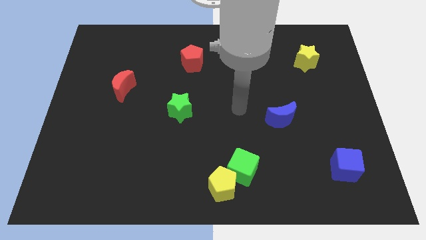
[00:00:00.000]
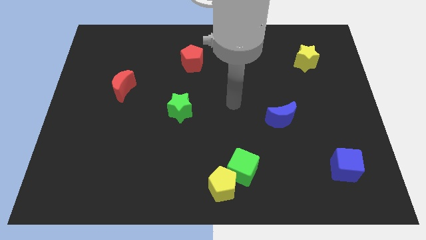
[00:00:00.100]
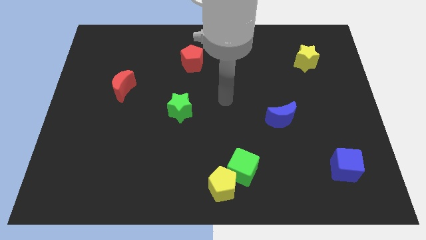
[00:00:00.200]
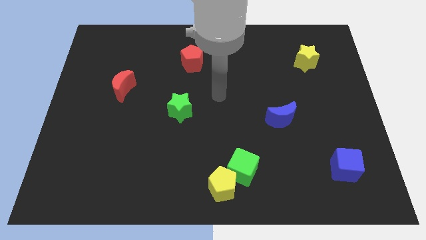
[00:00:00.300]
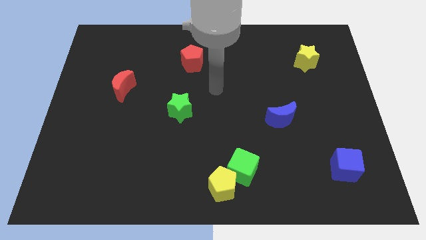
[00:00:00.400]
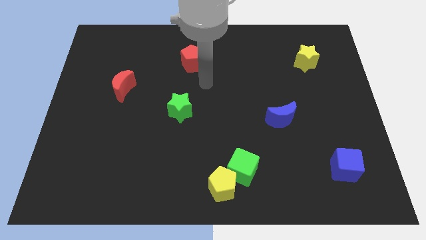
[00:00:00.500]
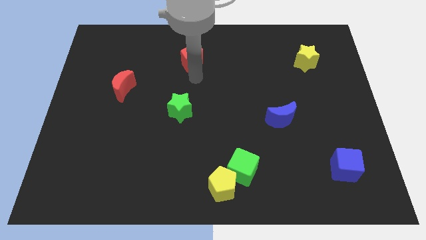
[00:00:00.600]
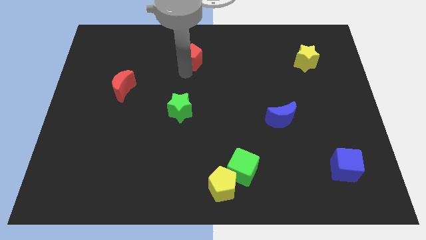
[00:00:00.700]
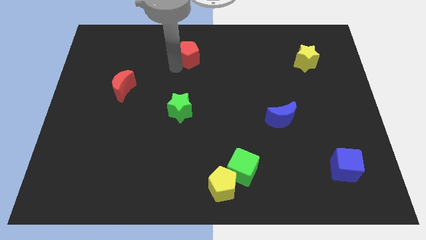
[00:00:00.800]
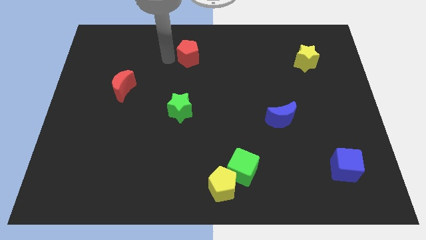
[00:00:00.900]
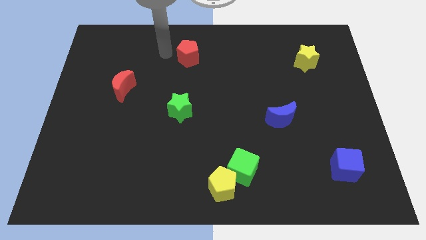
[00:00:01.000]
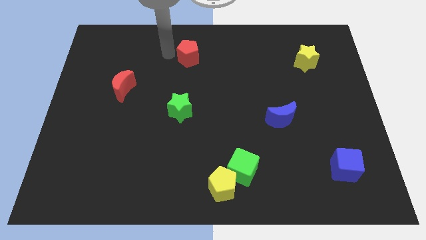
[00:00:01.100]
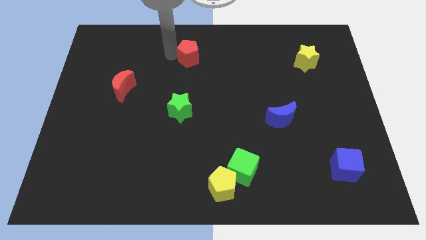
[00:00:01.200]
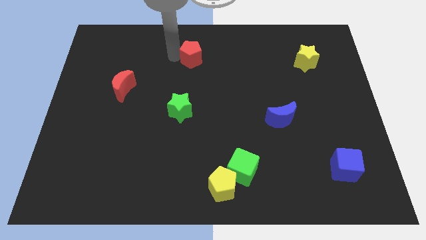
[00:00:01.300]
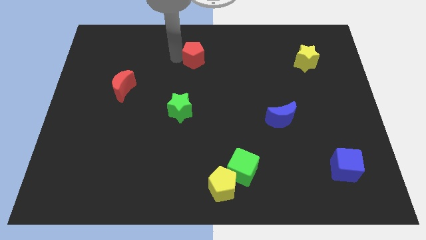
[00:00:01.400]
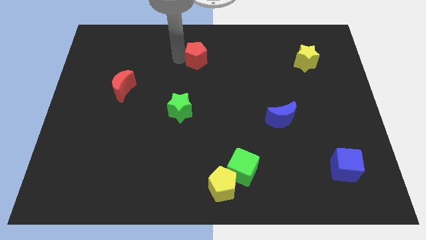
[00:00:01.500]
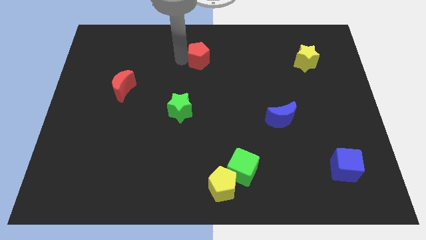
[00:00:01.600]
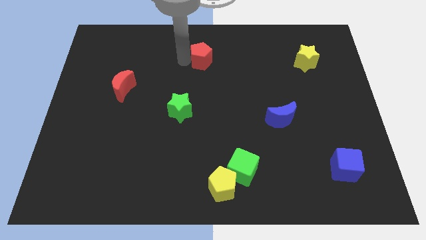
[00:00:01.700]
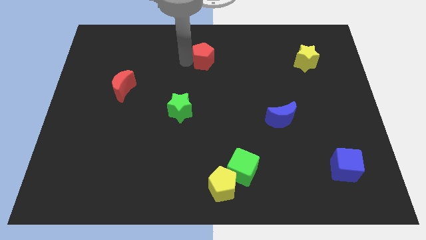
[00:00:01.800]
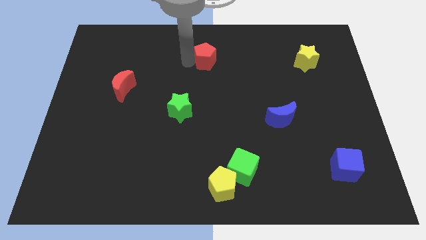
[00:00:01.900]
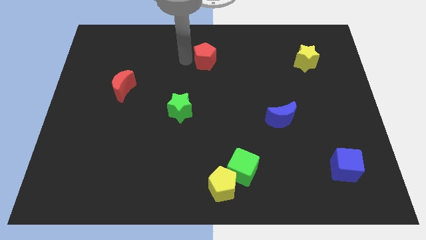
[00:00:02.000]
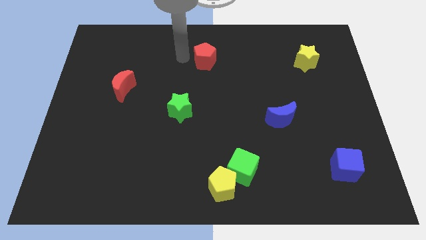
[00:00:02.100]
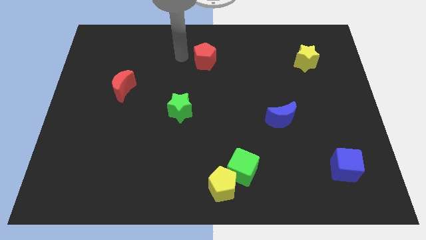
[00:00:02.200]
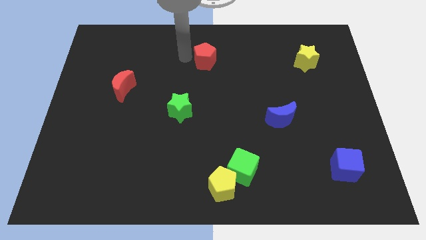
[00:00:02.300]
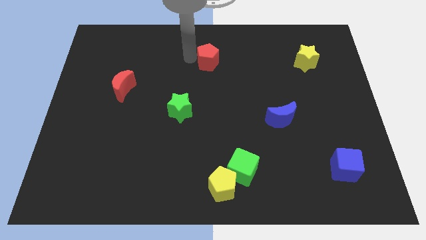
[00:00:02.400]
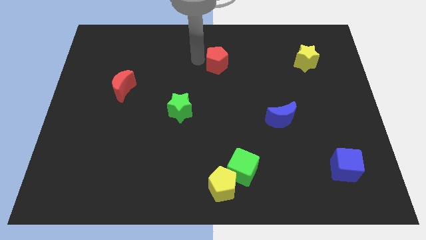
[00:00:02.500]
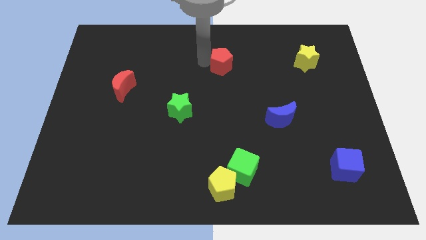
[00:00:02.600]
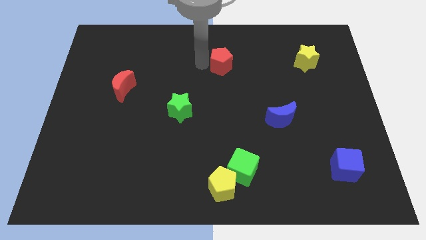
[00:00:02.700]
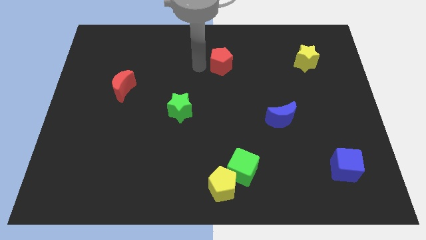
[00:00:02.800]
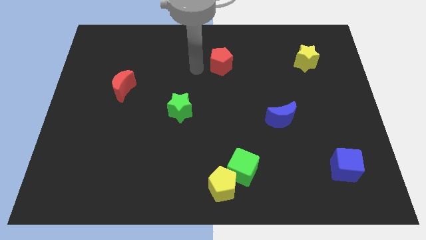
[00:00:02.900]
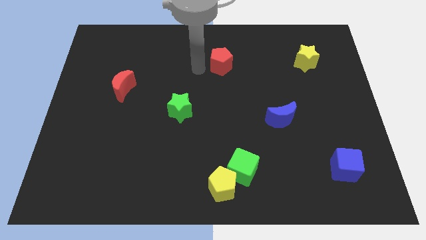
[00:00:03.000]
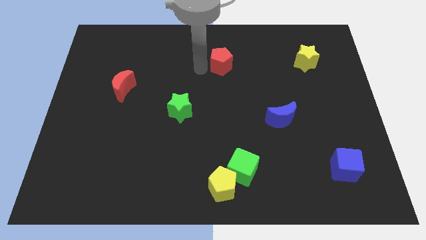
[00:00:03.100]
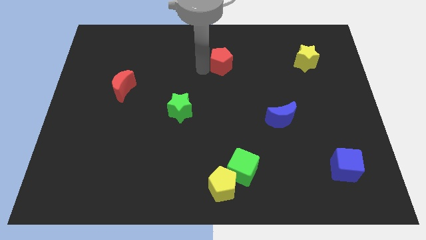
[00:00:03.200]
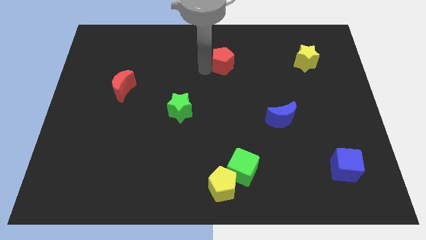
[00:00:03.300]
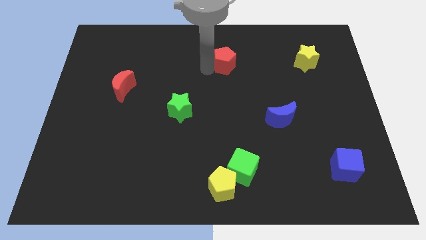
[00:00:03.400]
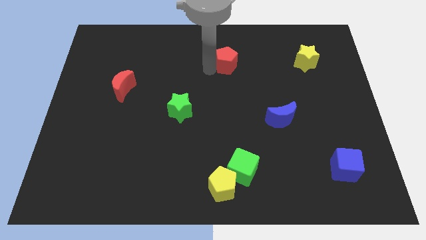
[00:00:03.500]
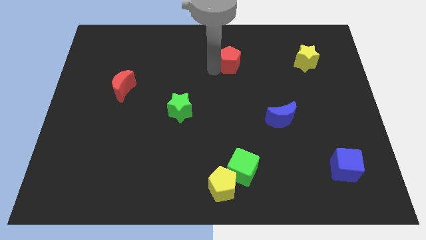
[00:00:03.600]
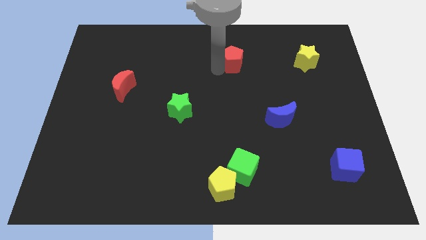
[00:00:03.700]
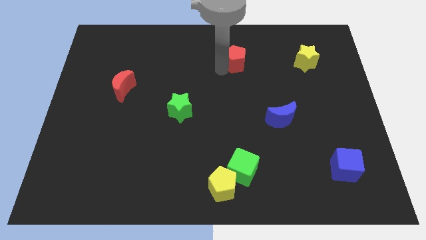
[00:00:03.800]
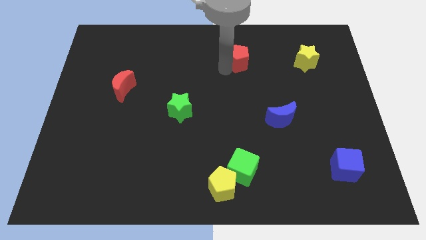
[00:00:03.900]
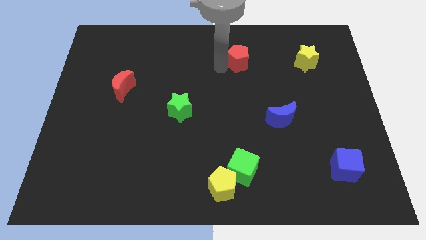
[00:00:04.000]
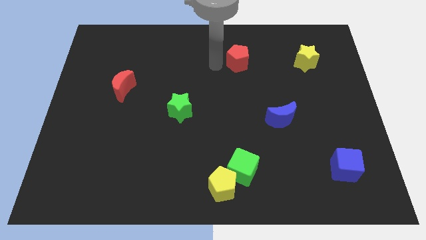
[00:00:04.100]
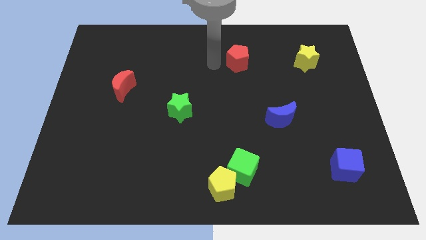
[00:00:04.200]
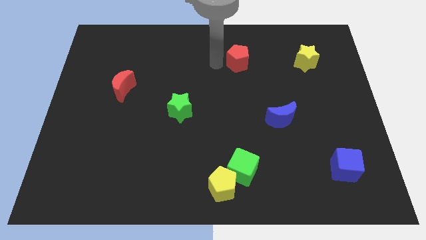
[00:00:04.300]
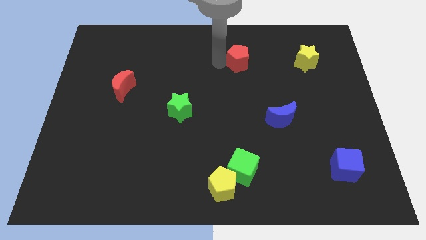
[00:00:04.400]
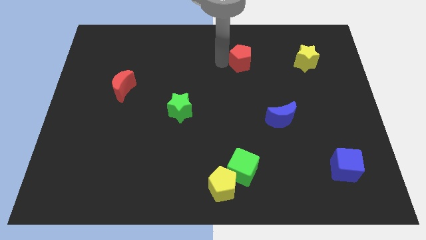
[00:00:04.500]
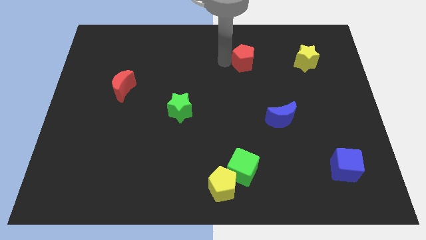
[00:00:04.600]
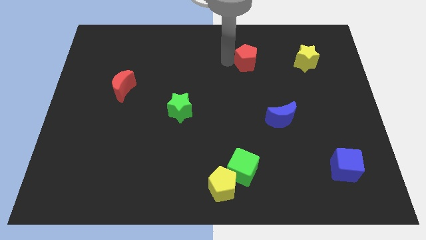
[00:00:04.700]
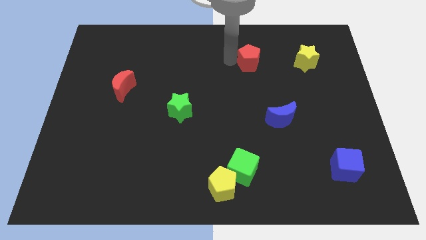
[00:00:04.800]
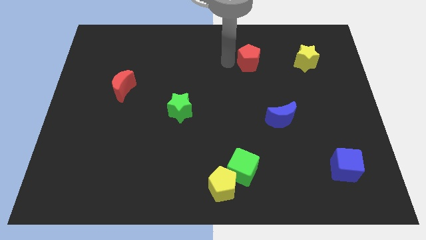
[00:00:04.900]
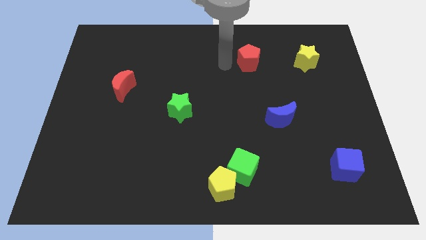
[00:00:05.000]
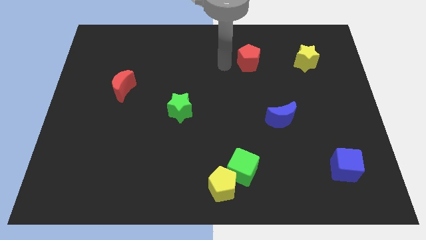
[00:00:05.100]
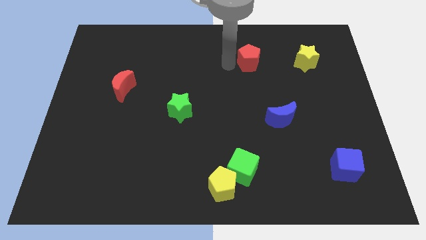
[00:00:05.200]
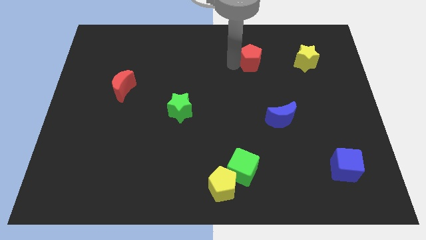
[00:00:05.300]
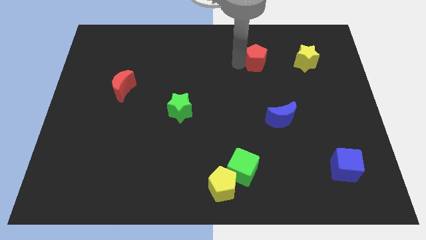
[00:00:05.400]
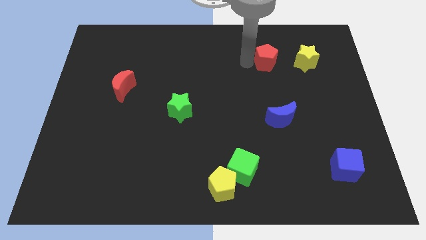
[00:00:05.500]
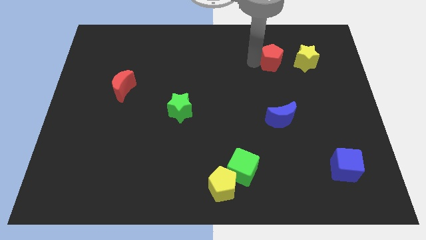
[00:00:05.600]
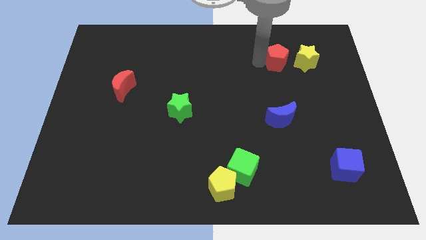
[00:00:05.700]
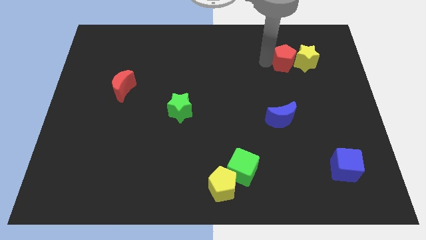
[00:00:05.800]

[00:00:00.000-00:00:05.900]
put the red pentagon close to the yellow star

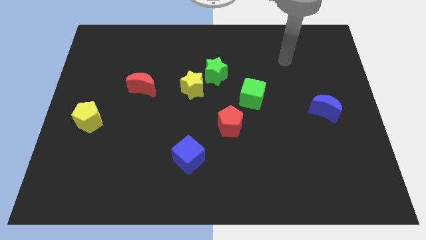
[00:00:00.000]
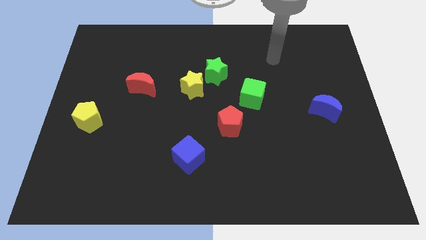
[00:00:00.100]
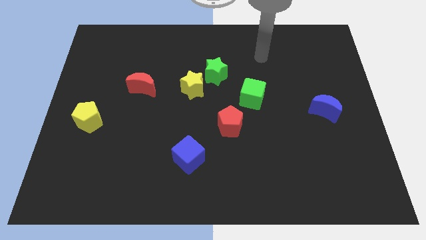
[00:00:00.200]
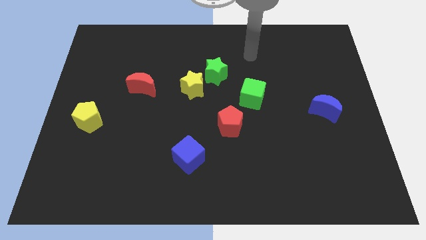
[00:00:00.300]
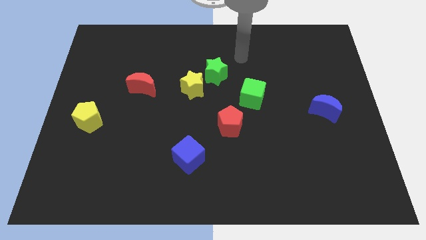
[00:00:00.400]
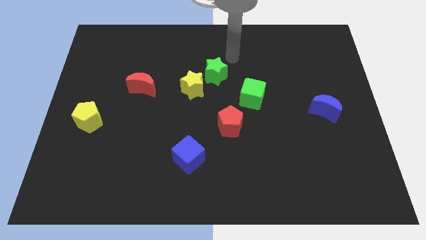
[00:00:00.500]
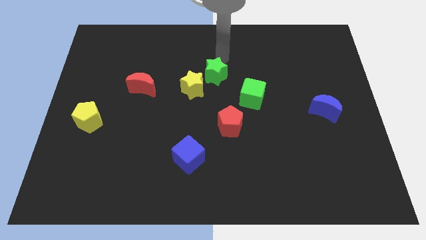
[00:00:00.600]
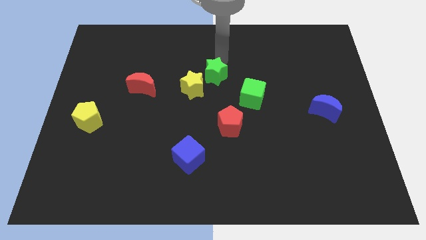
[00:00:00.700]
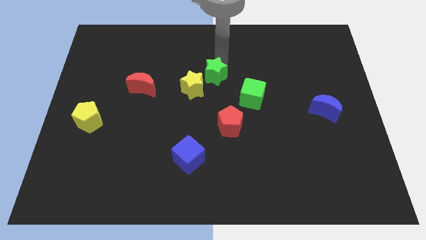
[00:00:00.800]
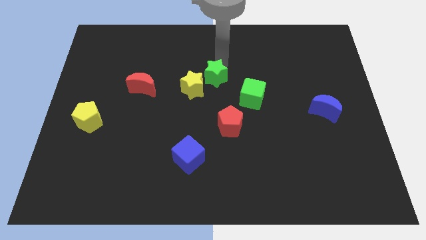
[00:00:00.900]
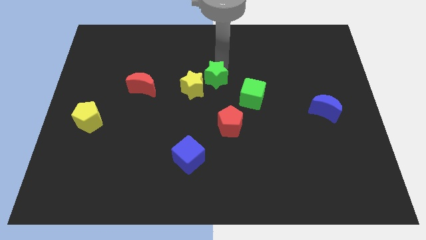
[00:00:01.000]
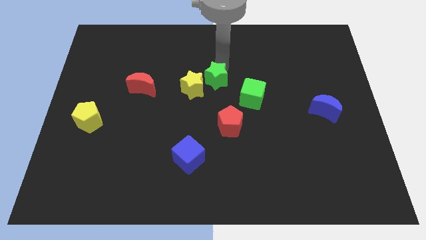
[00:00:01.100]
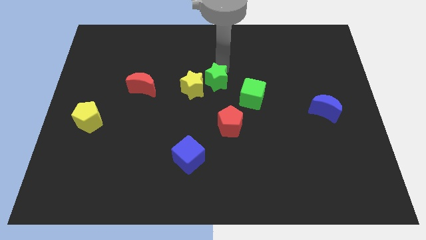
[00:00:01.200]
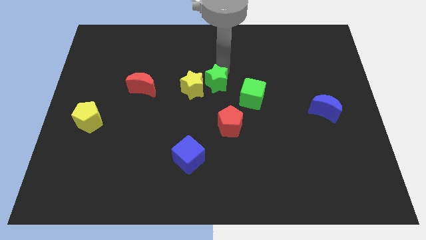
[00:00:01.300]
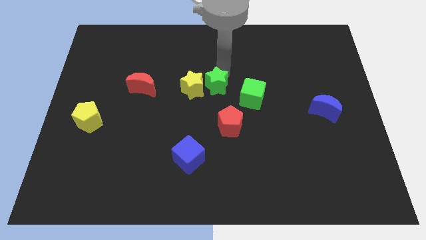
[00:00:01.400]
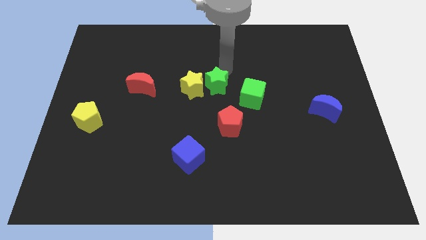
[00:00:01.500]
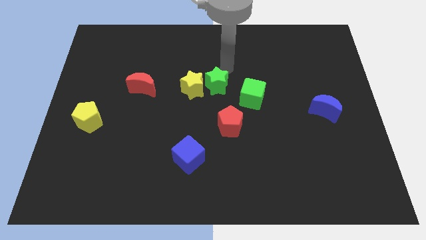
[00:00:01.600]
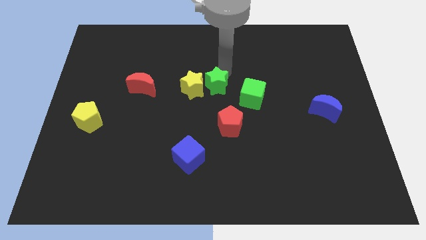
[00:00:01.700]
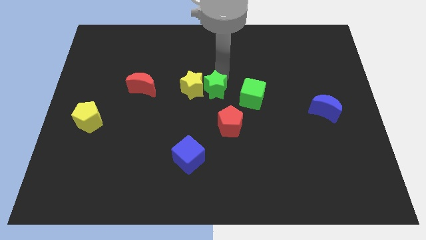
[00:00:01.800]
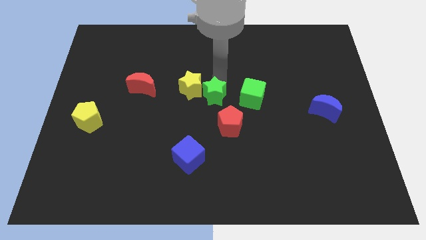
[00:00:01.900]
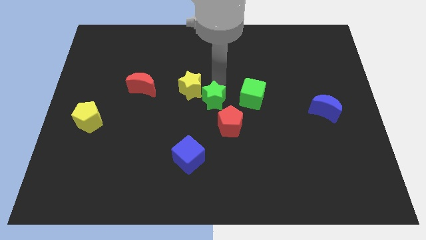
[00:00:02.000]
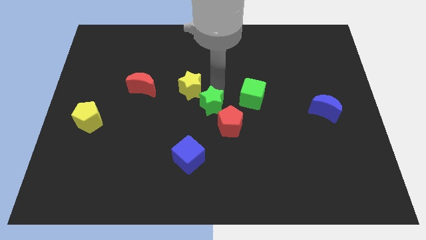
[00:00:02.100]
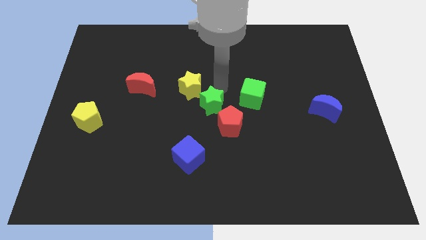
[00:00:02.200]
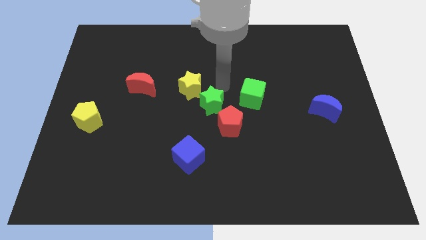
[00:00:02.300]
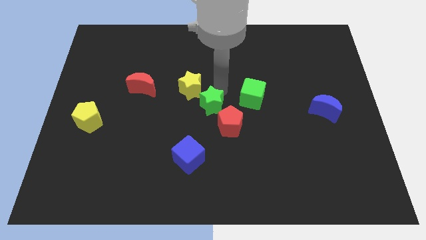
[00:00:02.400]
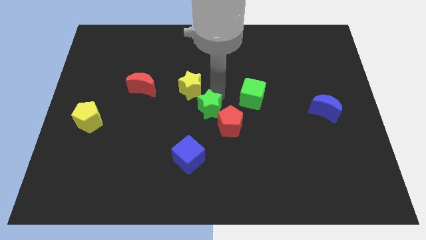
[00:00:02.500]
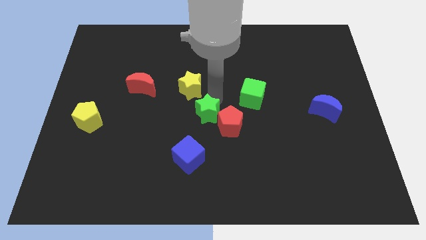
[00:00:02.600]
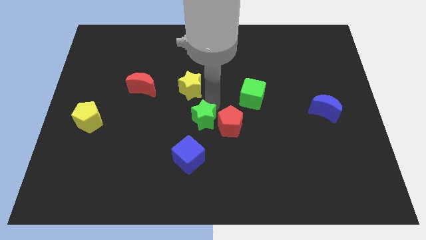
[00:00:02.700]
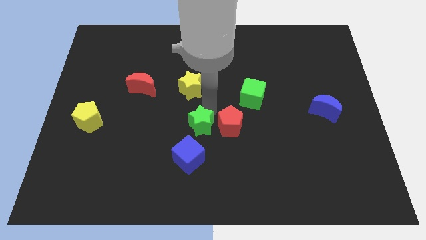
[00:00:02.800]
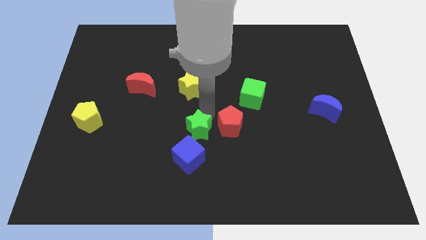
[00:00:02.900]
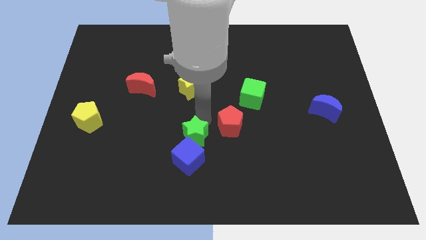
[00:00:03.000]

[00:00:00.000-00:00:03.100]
push the green star to the blue cube
